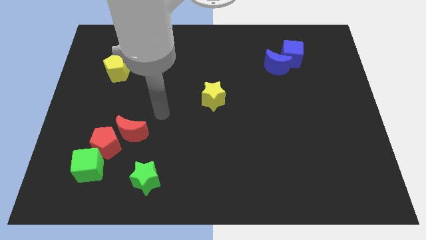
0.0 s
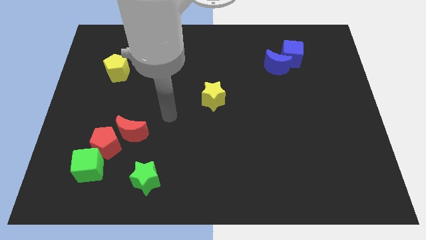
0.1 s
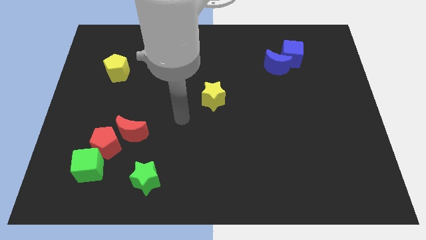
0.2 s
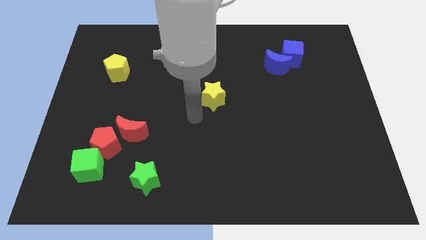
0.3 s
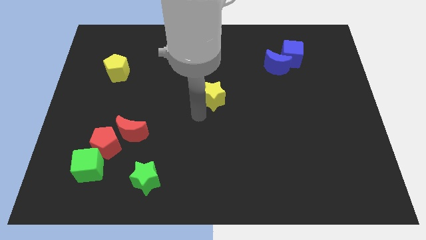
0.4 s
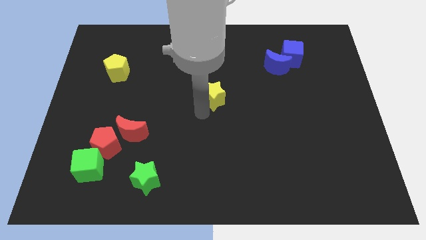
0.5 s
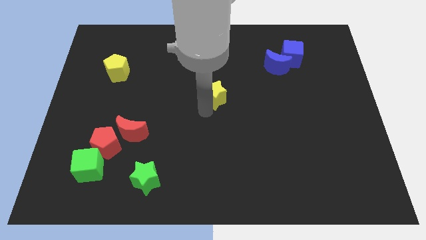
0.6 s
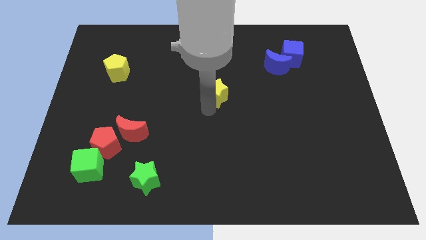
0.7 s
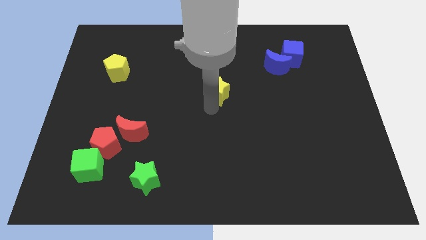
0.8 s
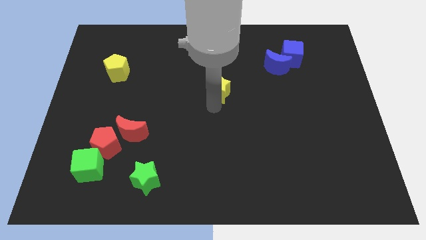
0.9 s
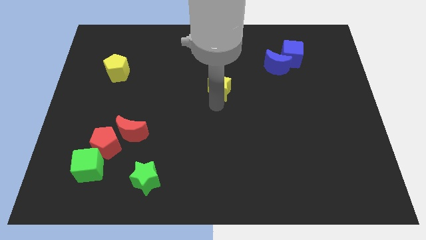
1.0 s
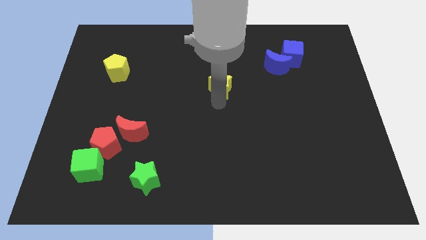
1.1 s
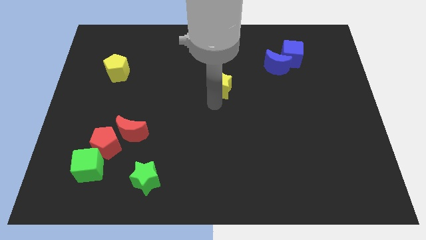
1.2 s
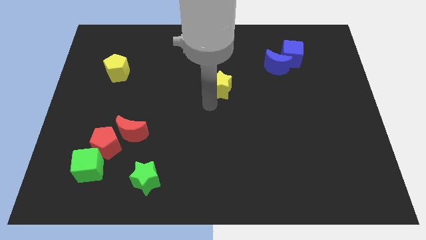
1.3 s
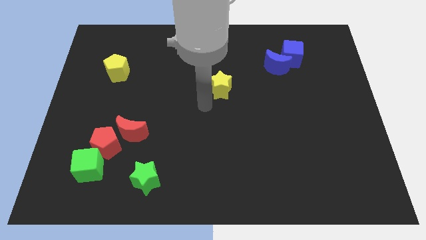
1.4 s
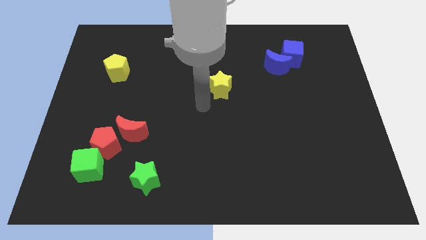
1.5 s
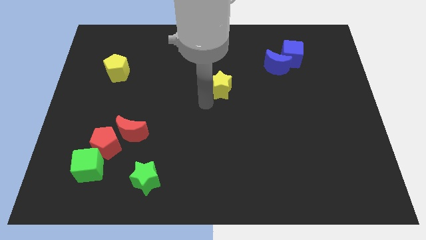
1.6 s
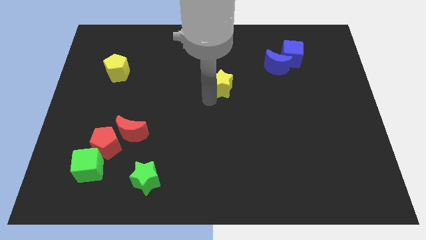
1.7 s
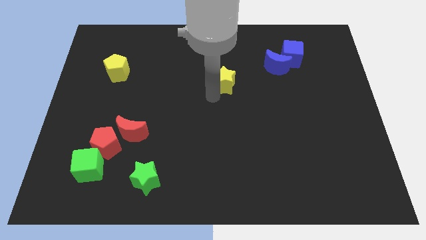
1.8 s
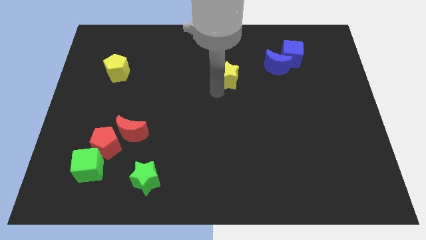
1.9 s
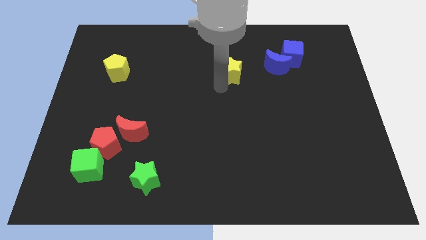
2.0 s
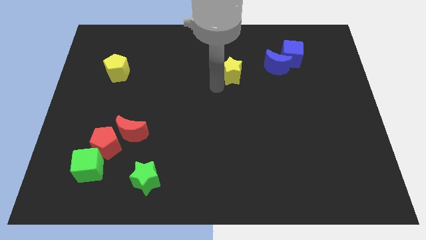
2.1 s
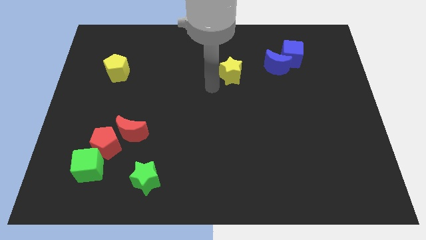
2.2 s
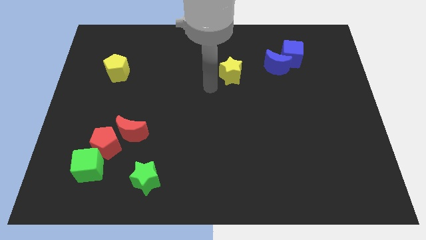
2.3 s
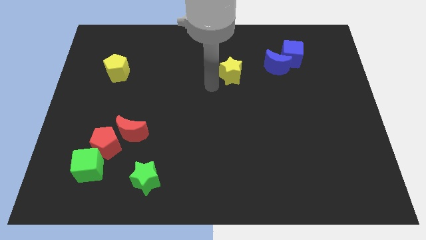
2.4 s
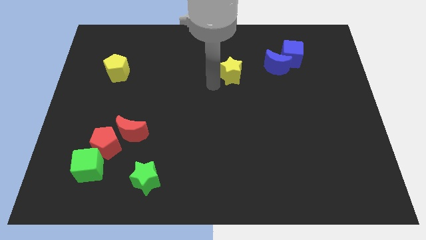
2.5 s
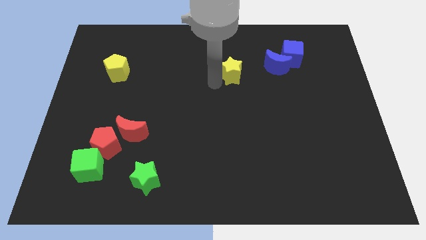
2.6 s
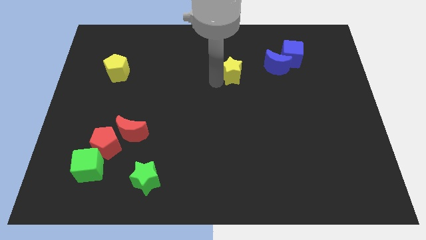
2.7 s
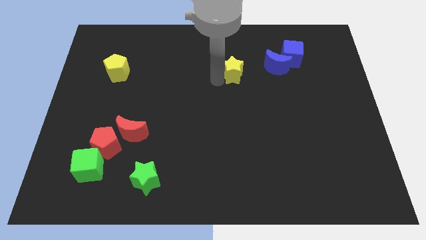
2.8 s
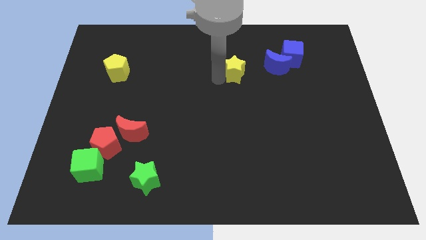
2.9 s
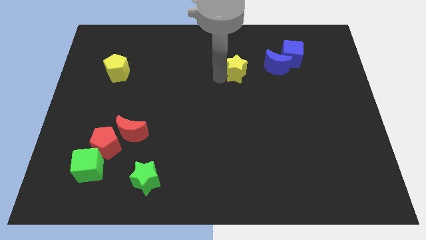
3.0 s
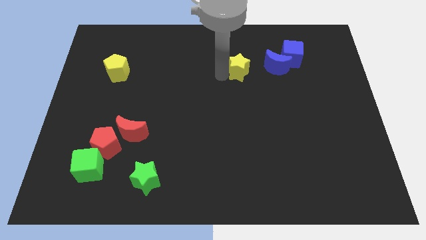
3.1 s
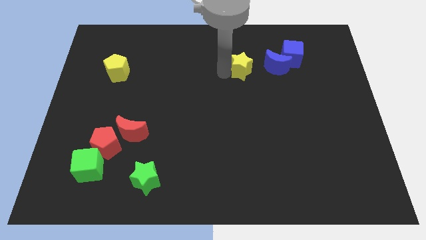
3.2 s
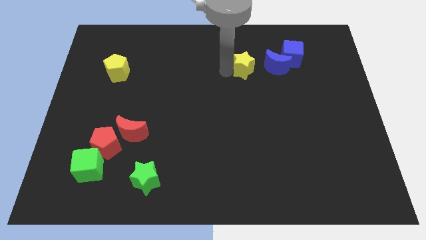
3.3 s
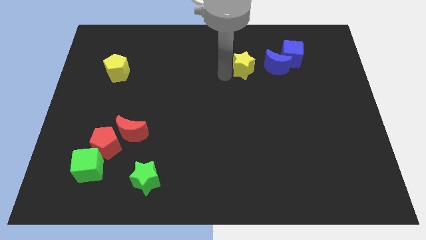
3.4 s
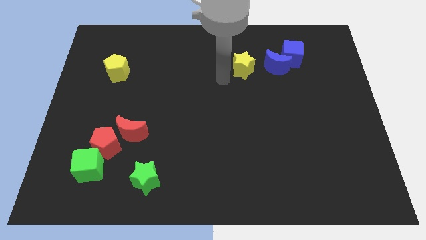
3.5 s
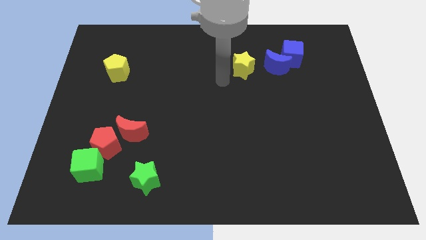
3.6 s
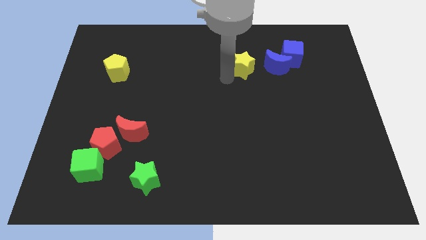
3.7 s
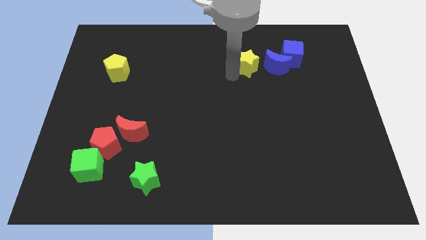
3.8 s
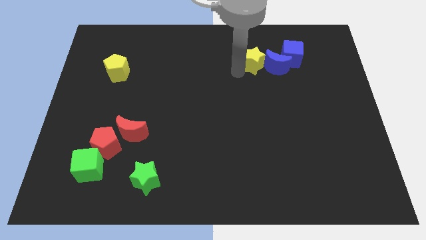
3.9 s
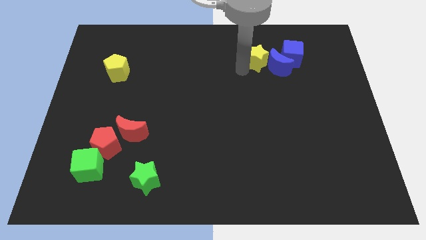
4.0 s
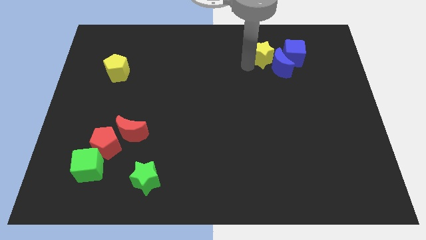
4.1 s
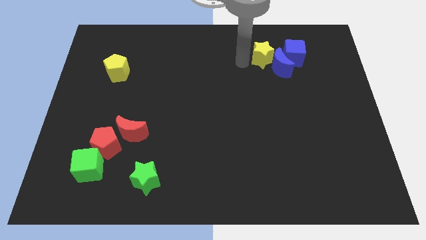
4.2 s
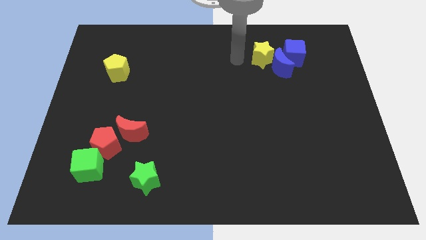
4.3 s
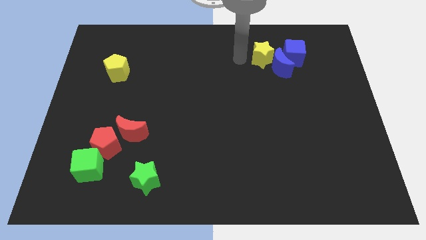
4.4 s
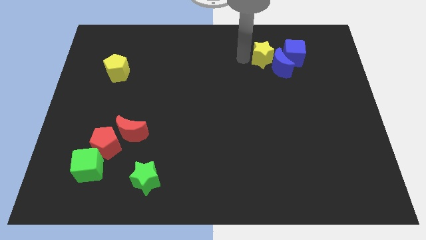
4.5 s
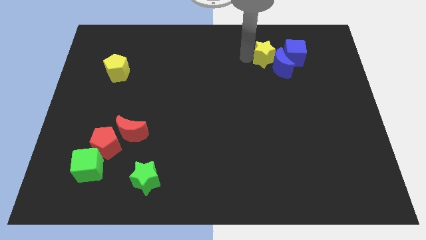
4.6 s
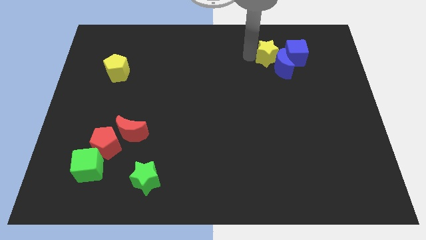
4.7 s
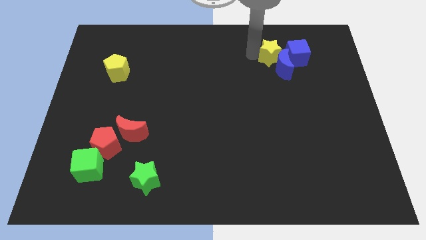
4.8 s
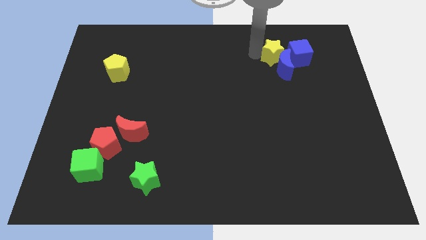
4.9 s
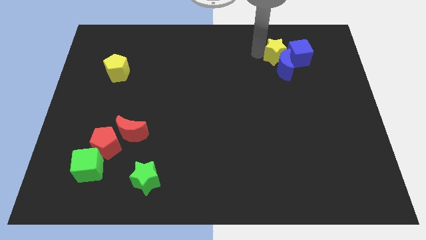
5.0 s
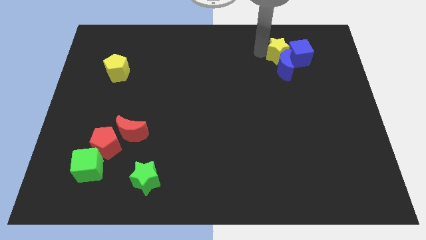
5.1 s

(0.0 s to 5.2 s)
push the yellow star to the blue cube

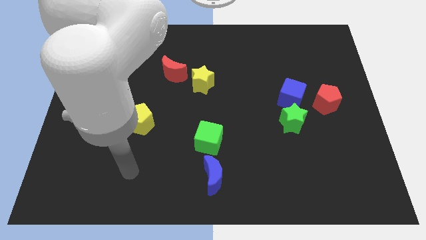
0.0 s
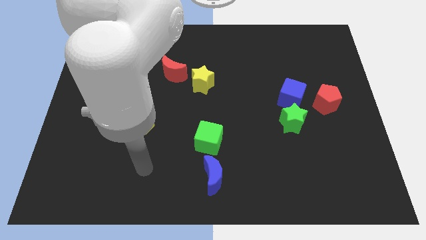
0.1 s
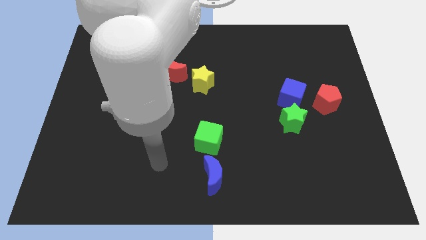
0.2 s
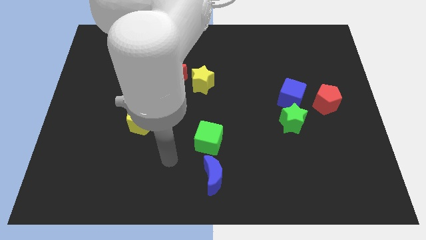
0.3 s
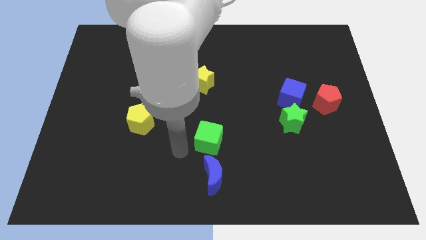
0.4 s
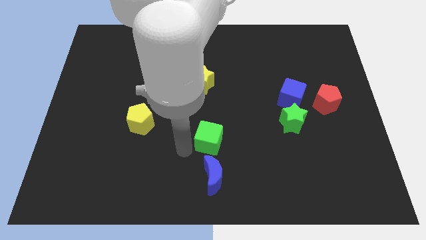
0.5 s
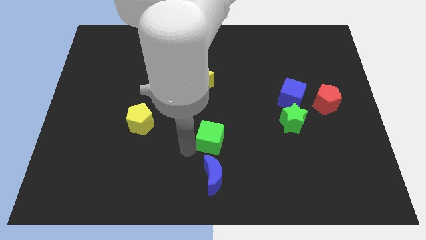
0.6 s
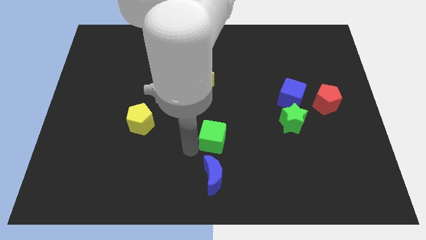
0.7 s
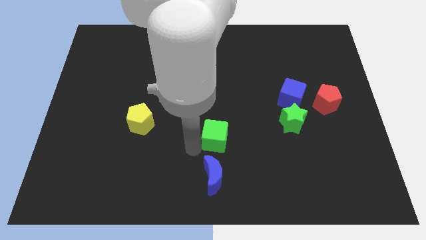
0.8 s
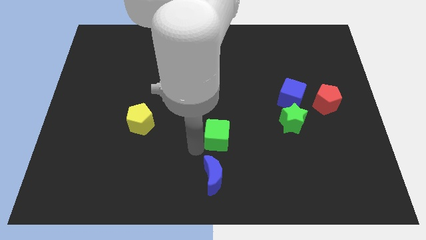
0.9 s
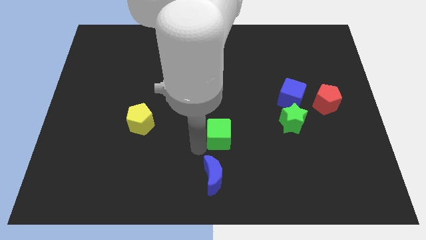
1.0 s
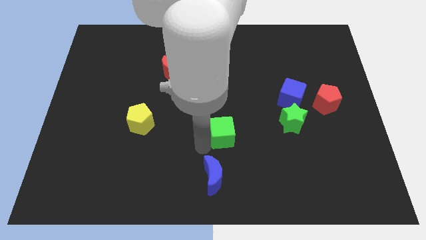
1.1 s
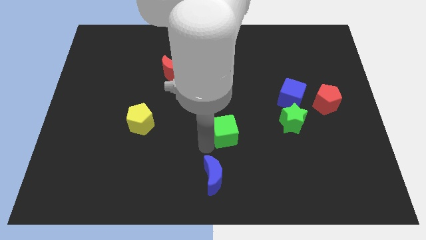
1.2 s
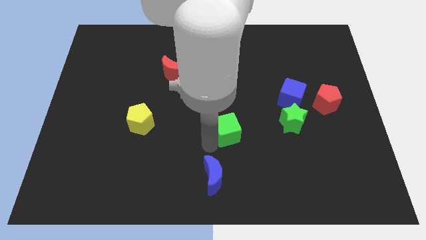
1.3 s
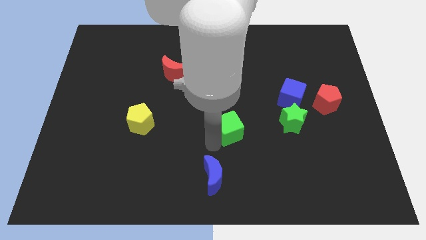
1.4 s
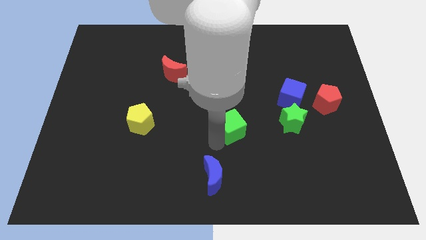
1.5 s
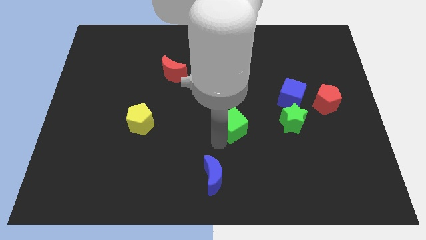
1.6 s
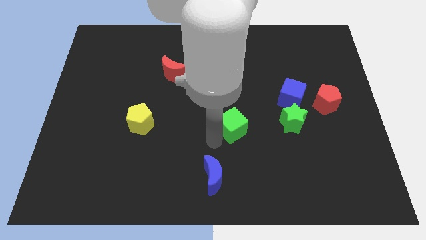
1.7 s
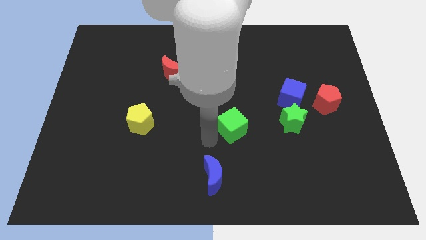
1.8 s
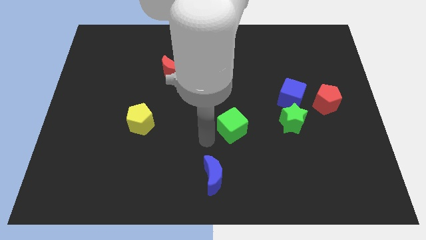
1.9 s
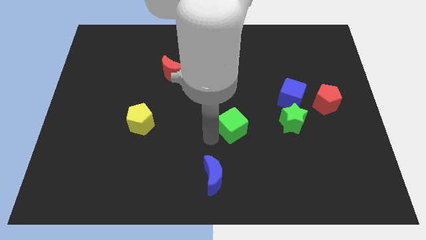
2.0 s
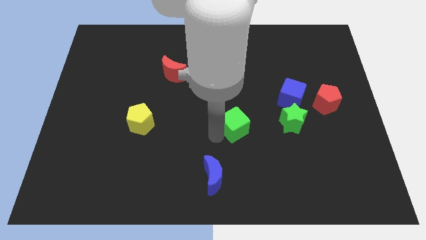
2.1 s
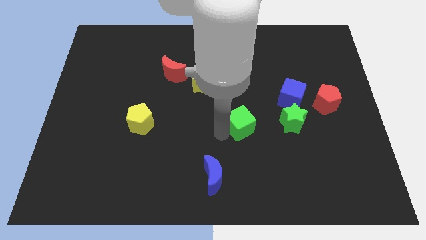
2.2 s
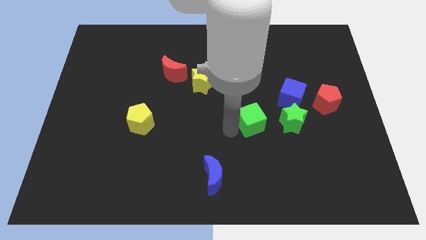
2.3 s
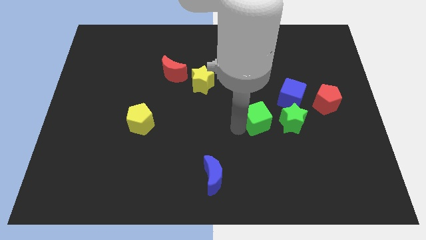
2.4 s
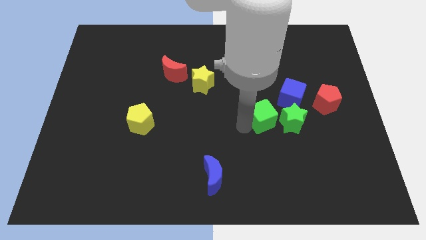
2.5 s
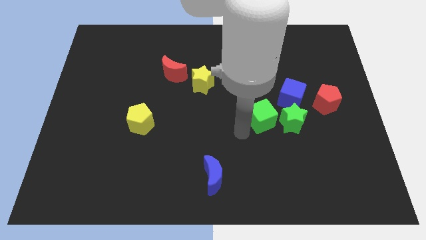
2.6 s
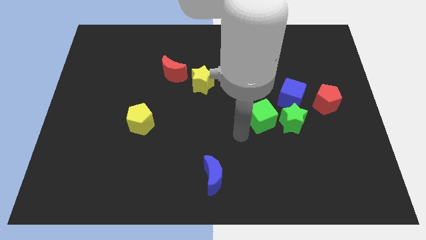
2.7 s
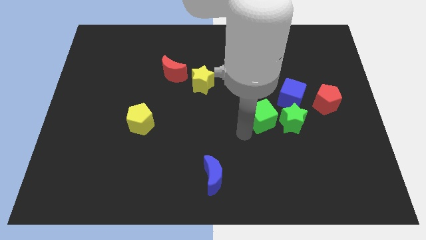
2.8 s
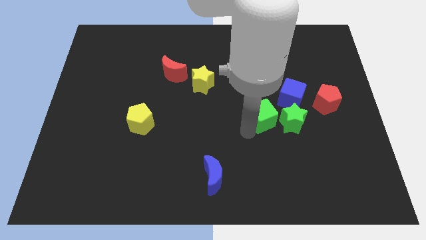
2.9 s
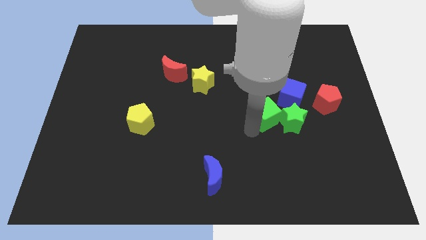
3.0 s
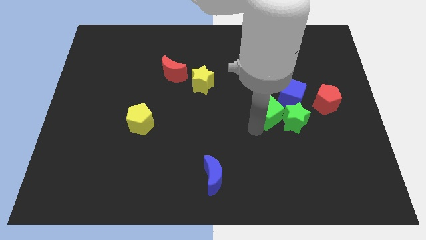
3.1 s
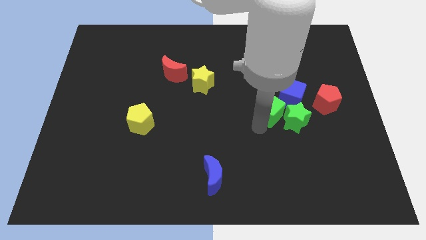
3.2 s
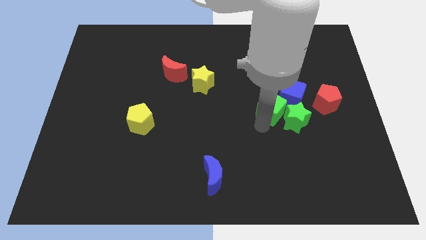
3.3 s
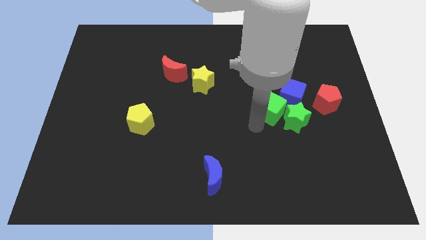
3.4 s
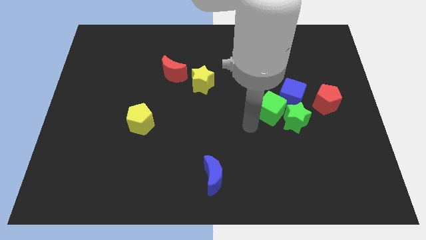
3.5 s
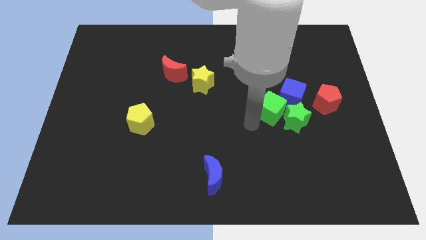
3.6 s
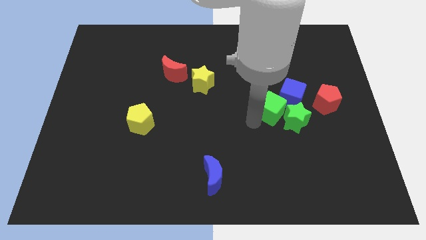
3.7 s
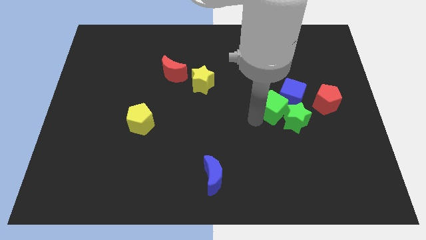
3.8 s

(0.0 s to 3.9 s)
move the green cube next to the blue cube
